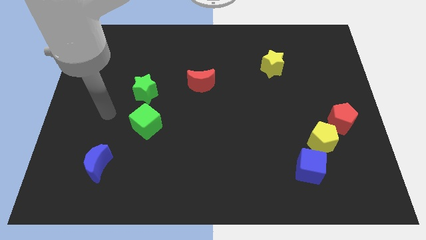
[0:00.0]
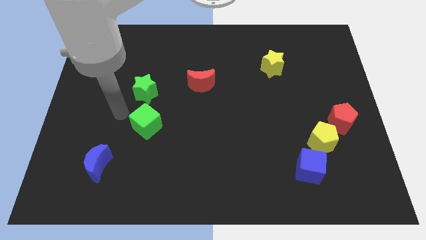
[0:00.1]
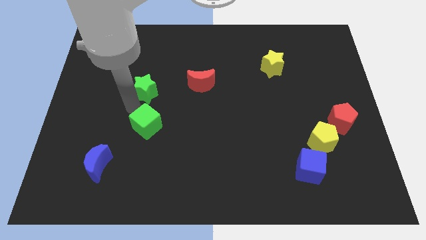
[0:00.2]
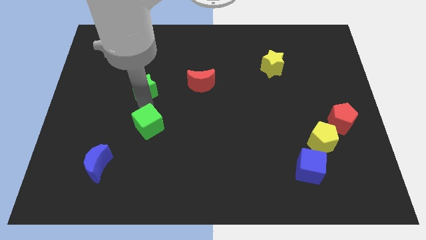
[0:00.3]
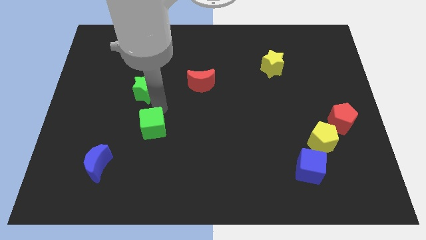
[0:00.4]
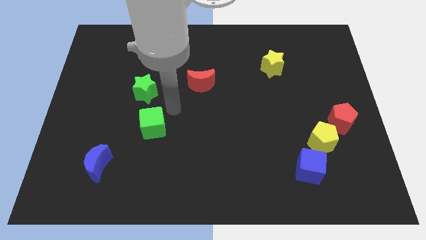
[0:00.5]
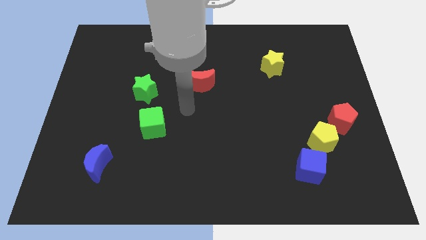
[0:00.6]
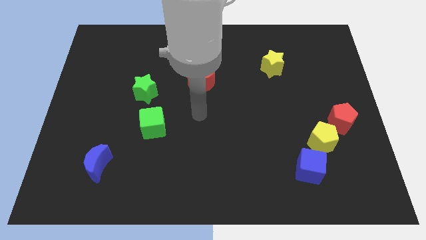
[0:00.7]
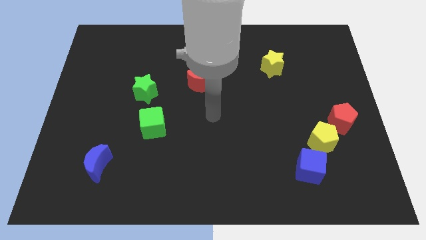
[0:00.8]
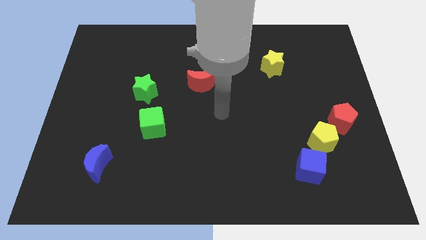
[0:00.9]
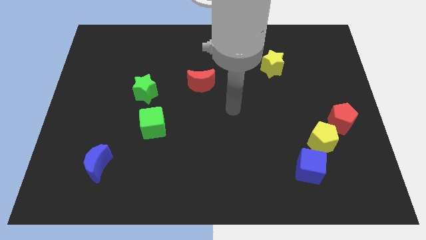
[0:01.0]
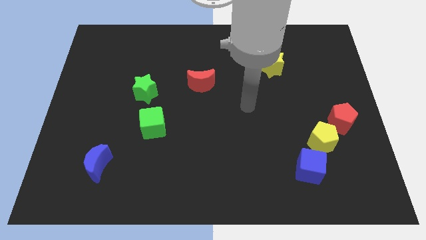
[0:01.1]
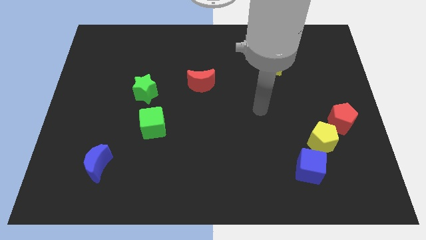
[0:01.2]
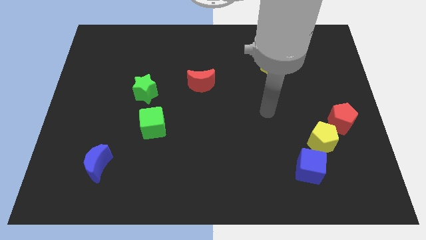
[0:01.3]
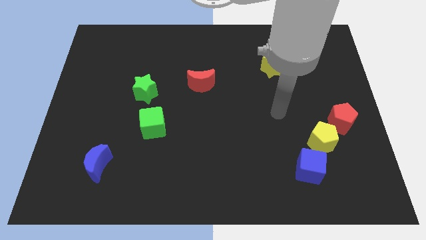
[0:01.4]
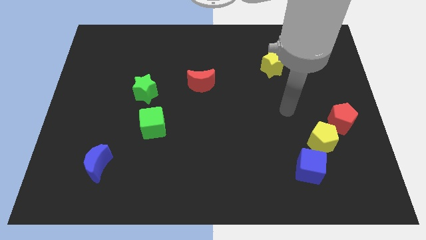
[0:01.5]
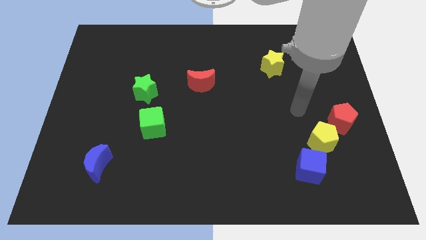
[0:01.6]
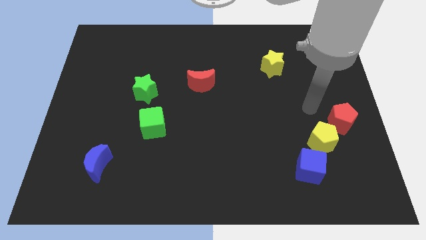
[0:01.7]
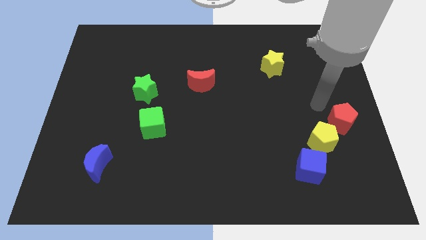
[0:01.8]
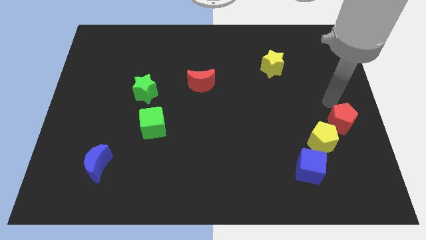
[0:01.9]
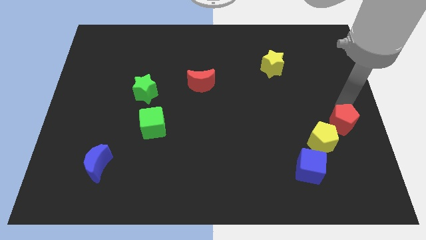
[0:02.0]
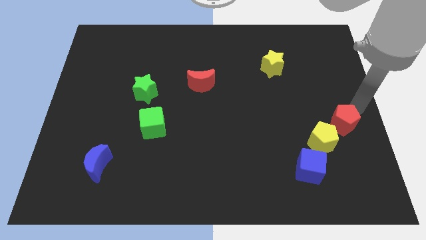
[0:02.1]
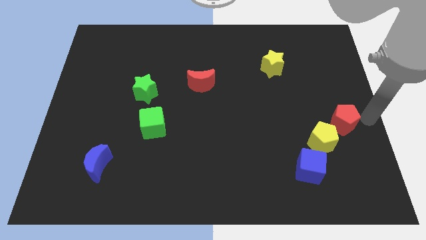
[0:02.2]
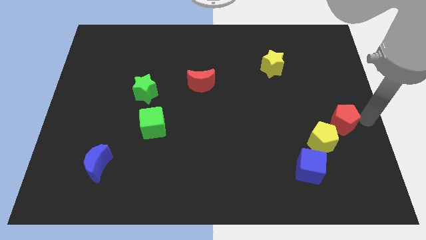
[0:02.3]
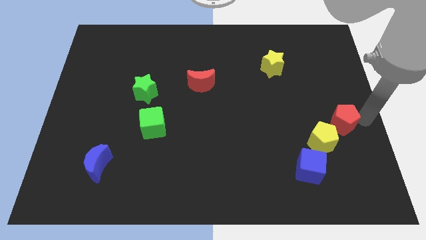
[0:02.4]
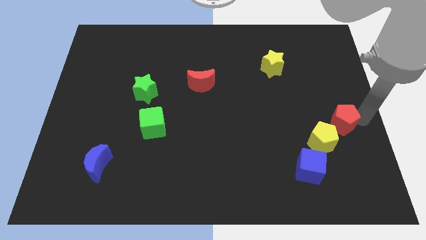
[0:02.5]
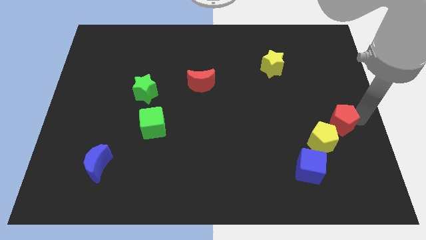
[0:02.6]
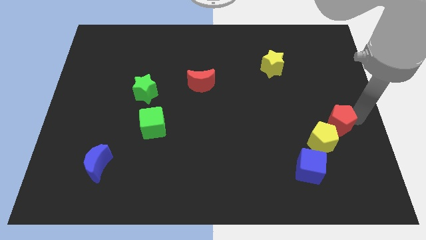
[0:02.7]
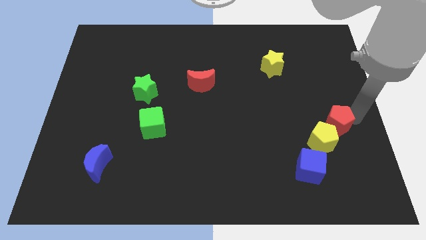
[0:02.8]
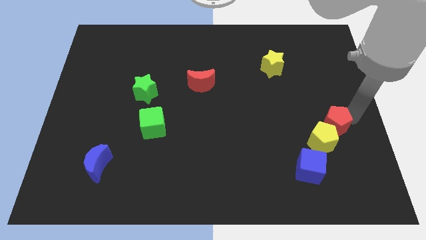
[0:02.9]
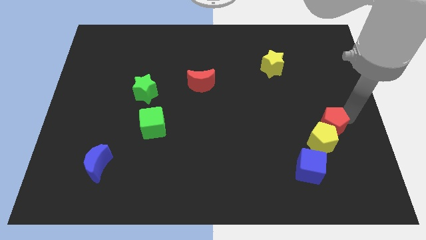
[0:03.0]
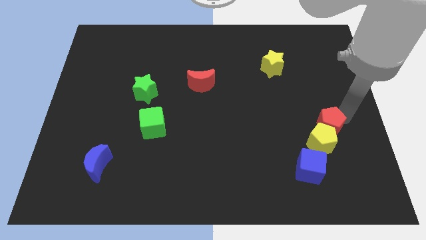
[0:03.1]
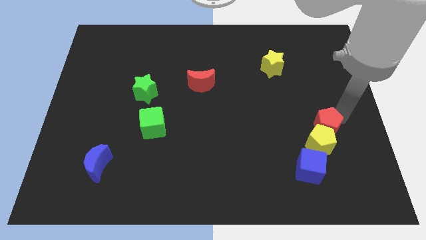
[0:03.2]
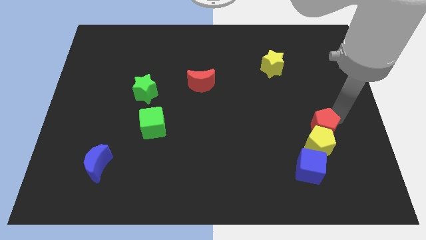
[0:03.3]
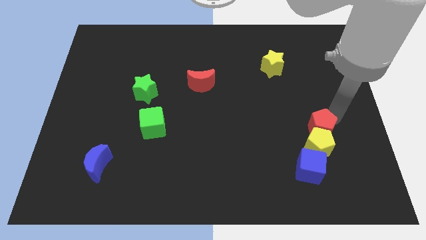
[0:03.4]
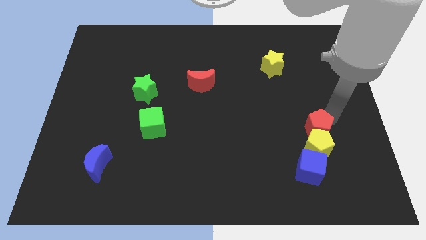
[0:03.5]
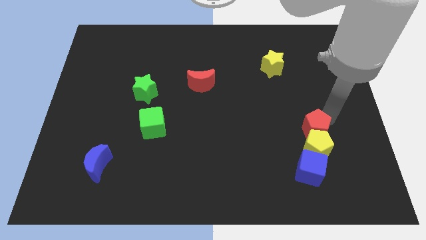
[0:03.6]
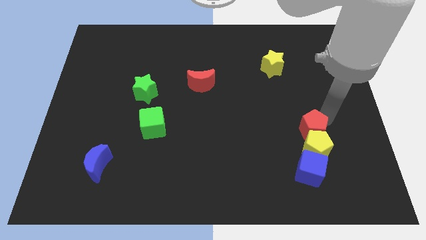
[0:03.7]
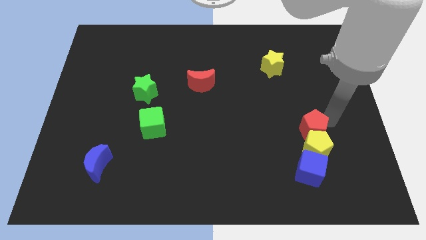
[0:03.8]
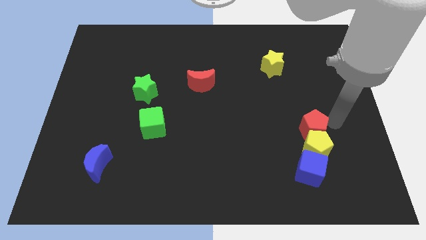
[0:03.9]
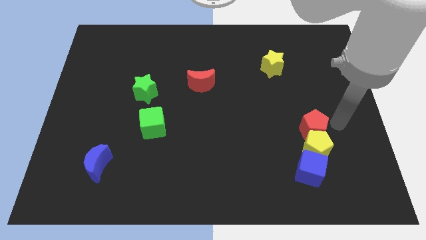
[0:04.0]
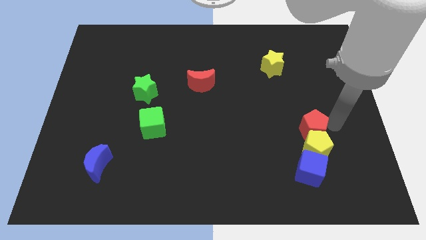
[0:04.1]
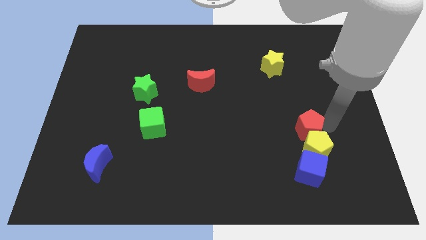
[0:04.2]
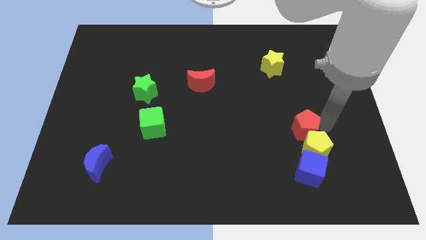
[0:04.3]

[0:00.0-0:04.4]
move the red pentagon somewhat downwards and to the left

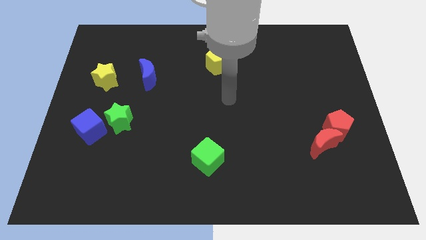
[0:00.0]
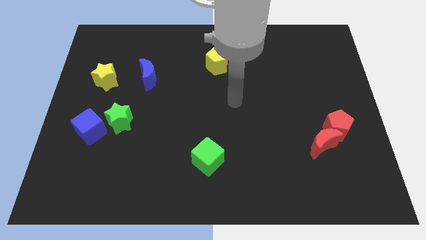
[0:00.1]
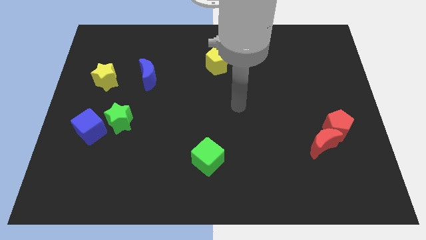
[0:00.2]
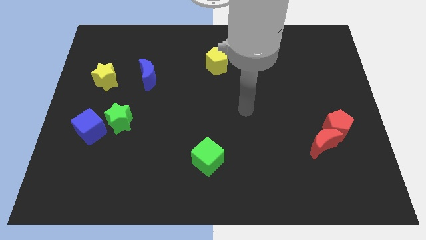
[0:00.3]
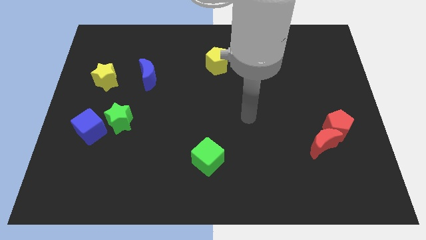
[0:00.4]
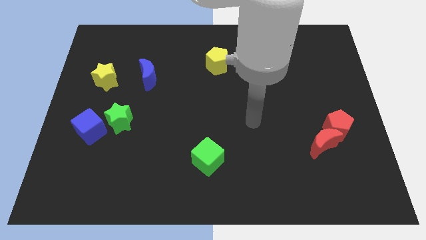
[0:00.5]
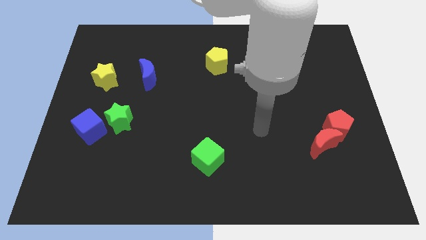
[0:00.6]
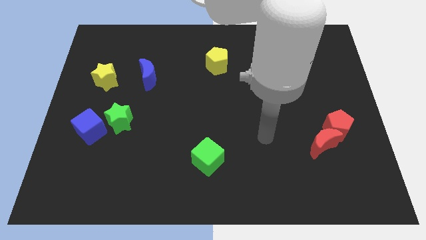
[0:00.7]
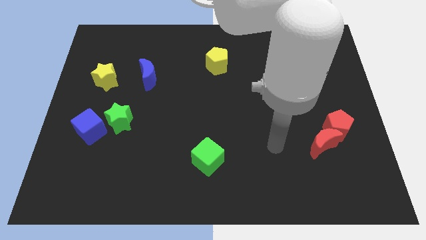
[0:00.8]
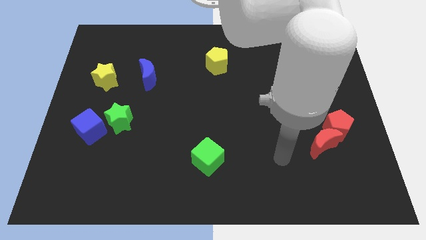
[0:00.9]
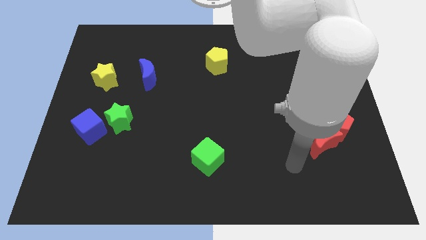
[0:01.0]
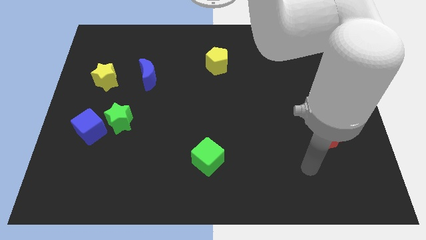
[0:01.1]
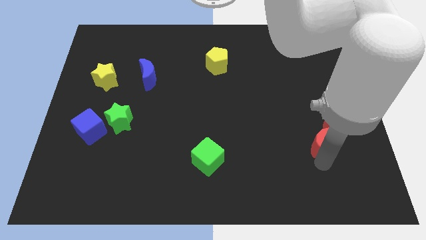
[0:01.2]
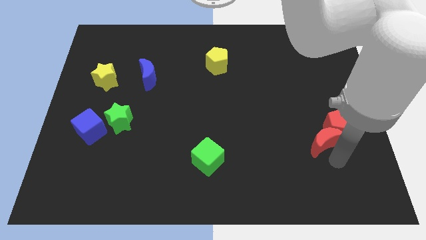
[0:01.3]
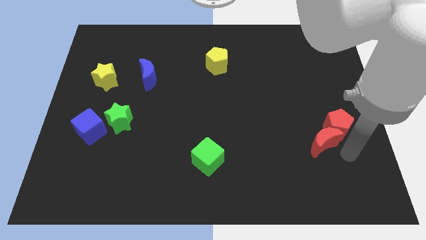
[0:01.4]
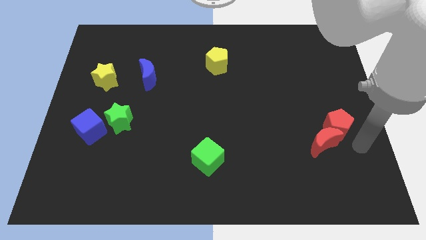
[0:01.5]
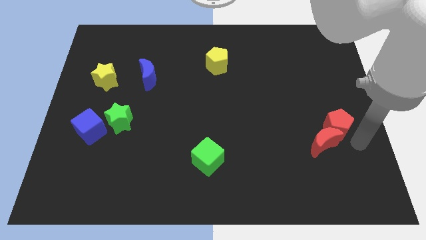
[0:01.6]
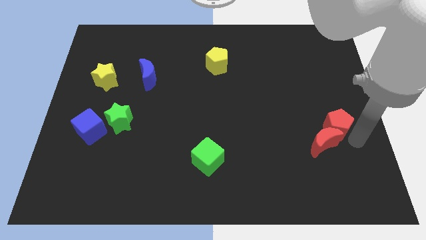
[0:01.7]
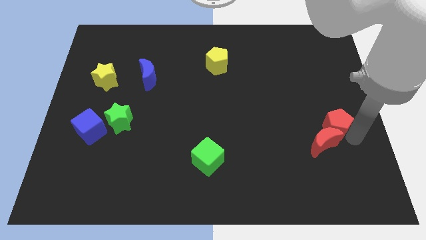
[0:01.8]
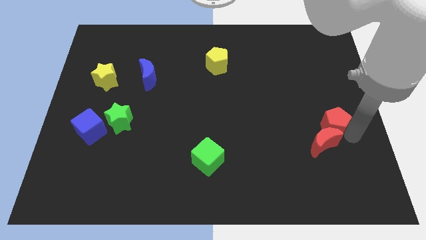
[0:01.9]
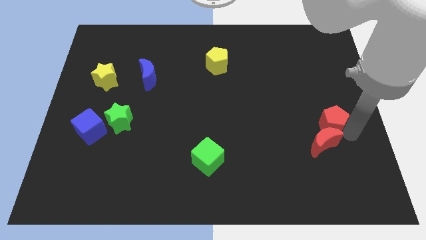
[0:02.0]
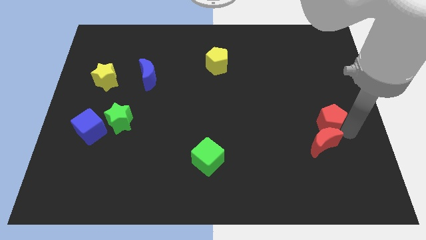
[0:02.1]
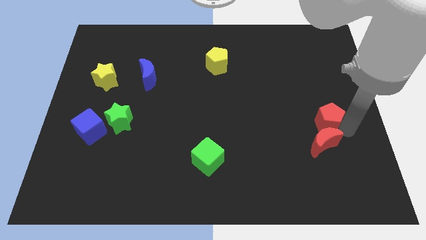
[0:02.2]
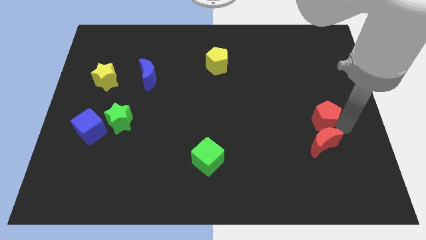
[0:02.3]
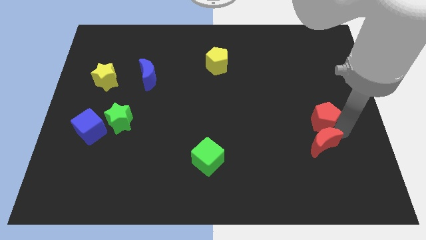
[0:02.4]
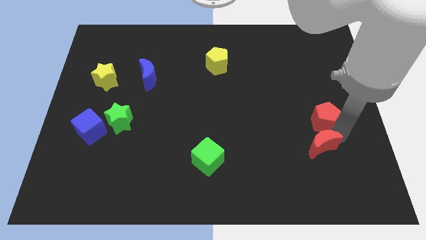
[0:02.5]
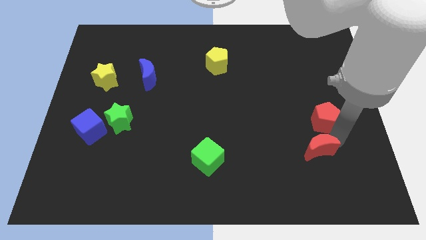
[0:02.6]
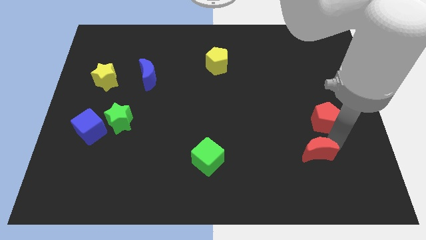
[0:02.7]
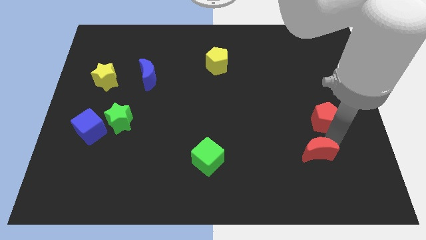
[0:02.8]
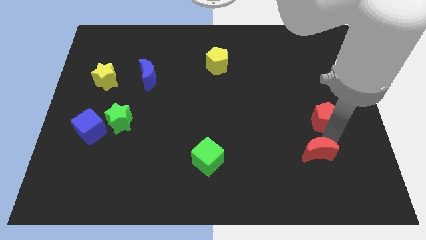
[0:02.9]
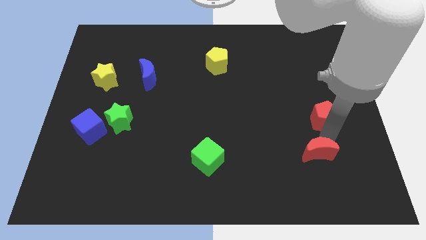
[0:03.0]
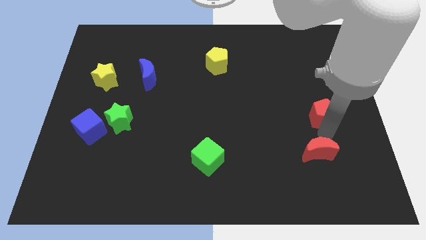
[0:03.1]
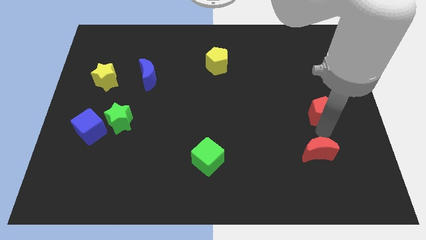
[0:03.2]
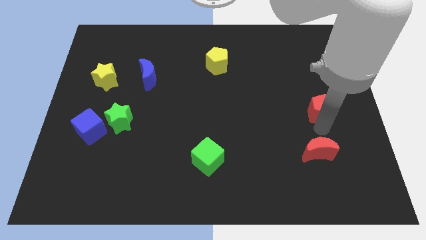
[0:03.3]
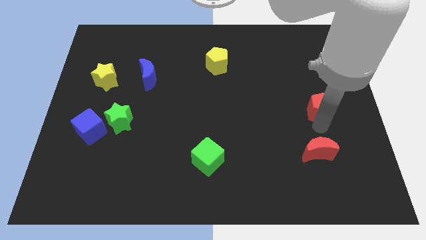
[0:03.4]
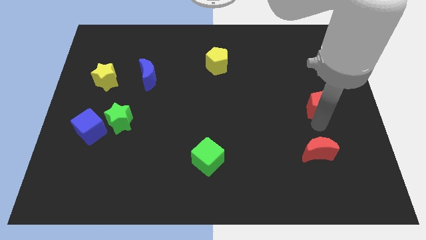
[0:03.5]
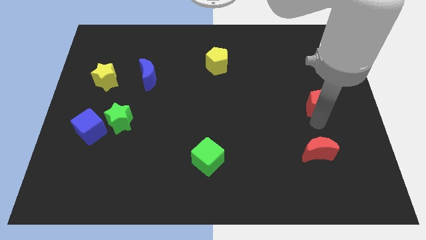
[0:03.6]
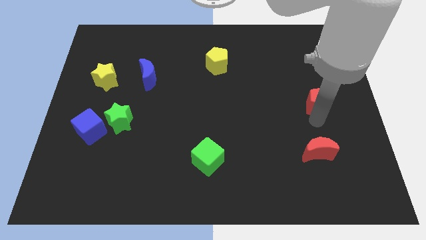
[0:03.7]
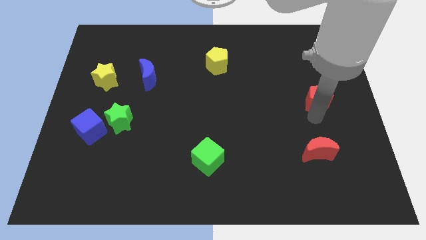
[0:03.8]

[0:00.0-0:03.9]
slightly move the red pentagon upwards
